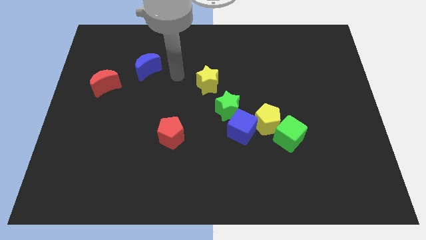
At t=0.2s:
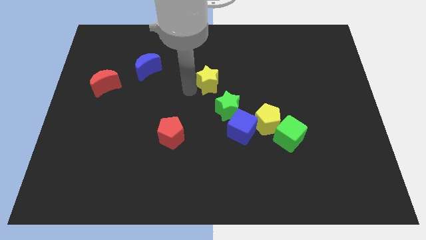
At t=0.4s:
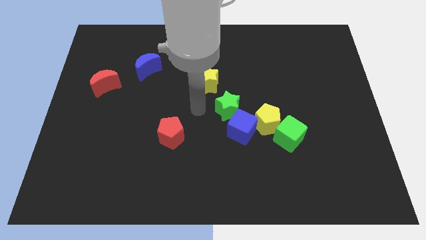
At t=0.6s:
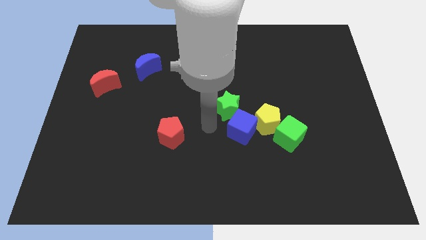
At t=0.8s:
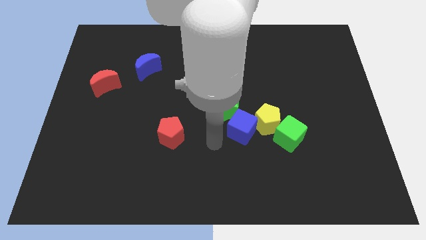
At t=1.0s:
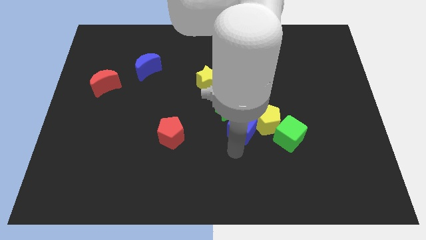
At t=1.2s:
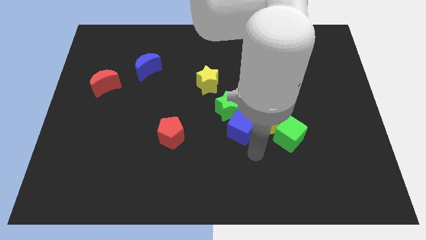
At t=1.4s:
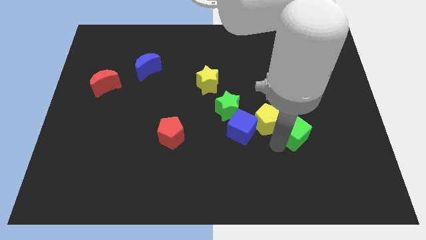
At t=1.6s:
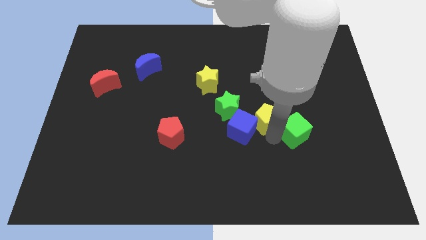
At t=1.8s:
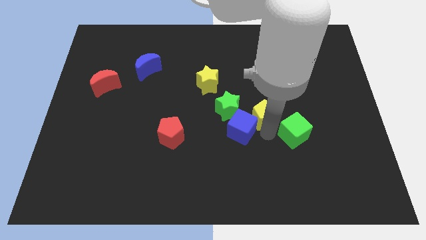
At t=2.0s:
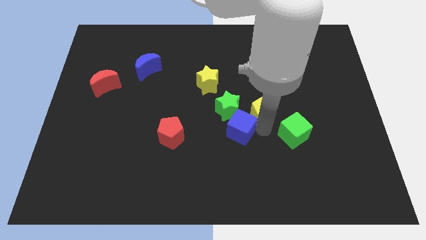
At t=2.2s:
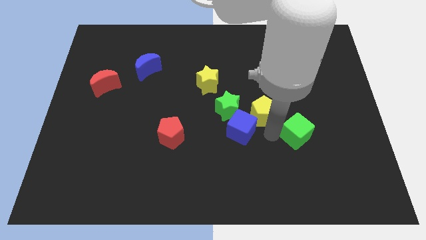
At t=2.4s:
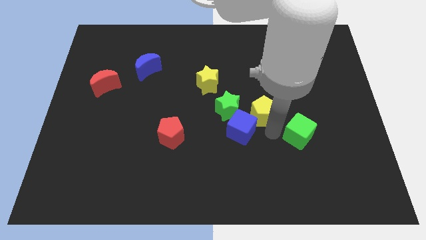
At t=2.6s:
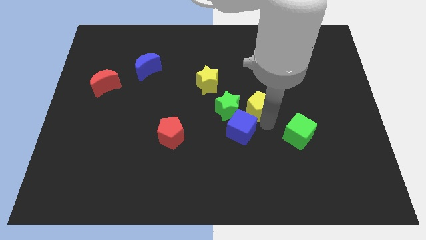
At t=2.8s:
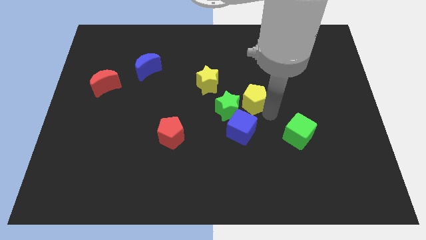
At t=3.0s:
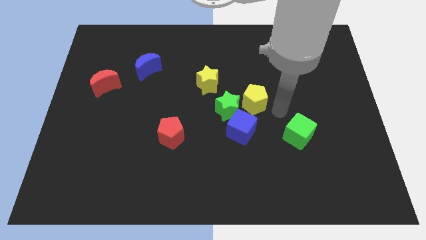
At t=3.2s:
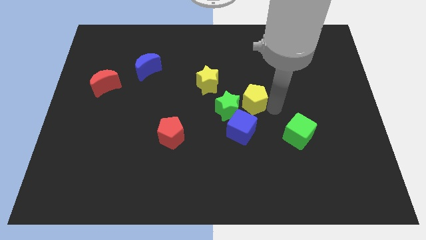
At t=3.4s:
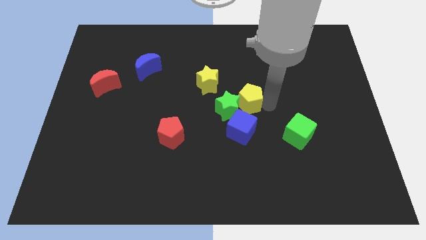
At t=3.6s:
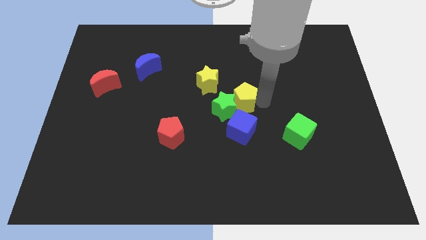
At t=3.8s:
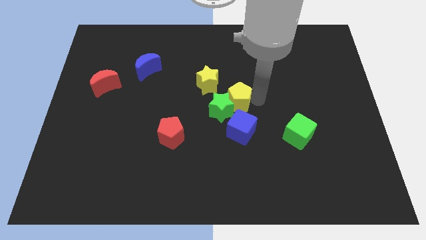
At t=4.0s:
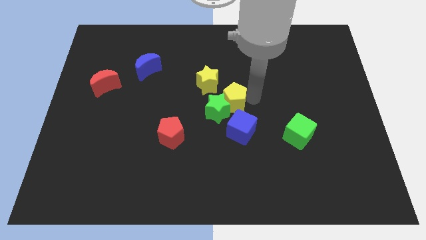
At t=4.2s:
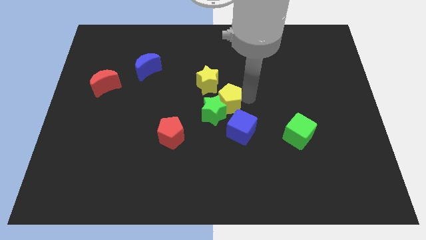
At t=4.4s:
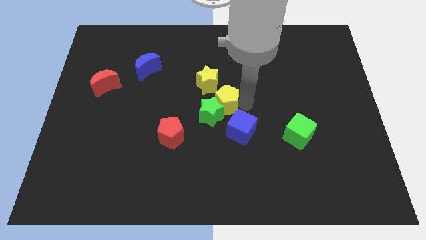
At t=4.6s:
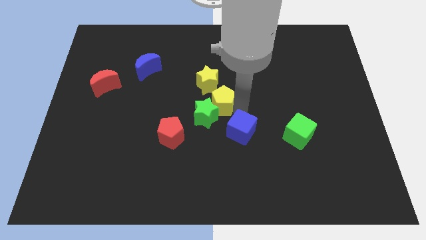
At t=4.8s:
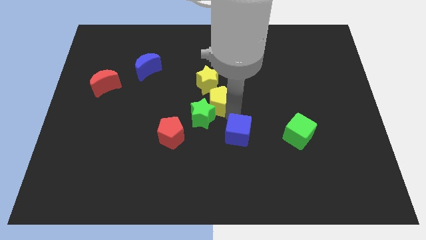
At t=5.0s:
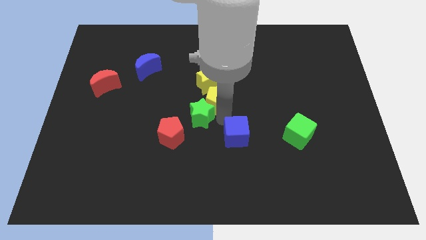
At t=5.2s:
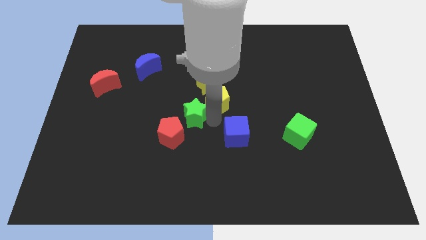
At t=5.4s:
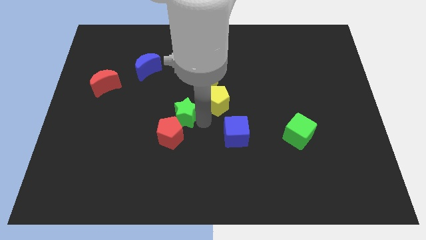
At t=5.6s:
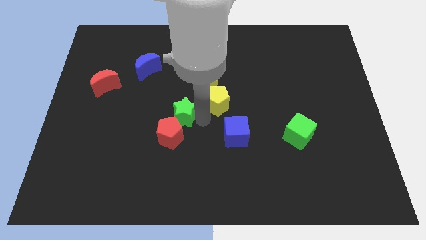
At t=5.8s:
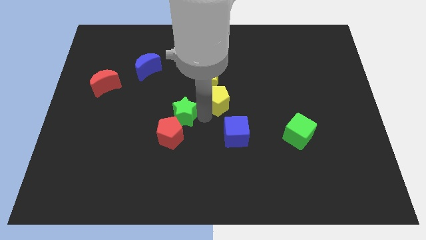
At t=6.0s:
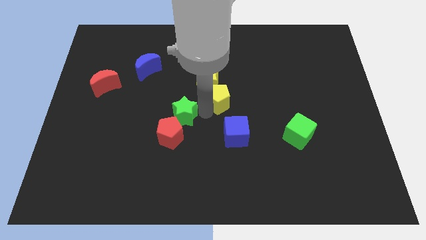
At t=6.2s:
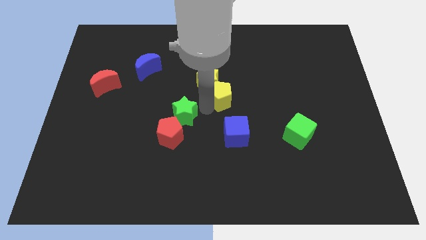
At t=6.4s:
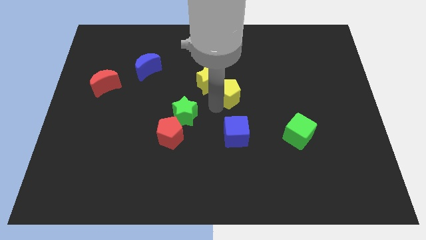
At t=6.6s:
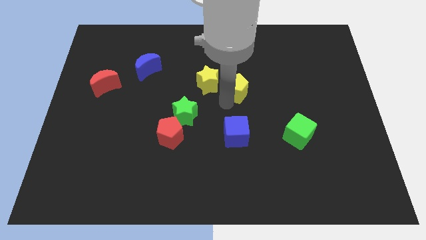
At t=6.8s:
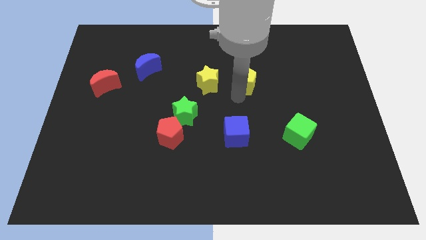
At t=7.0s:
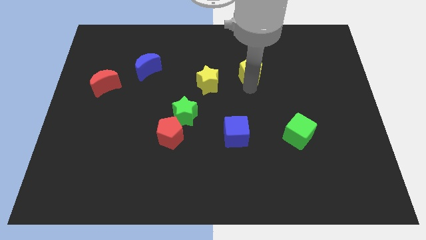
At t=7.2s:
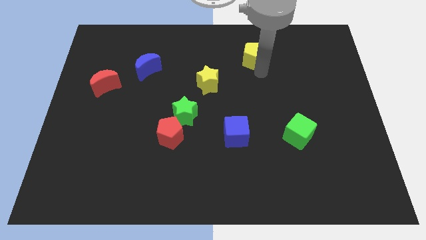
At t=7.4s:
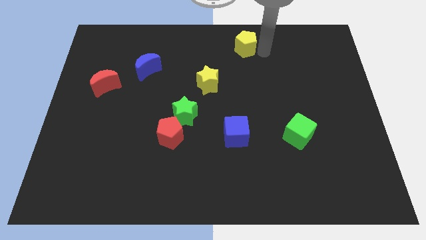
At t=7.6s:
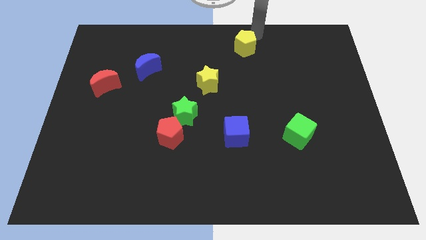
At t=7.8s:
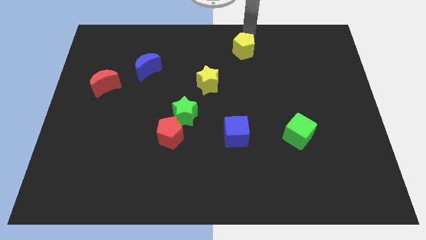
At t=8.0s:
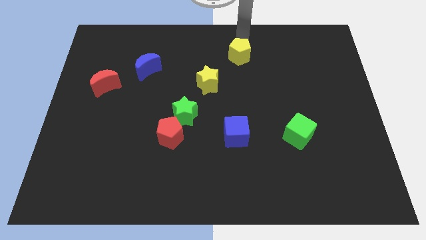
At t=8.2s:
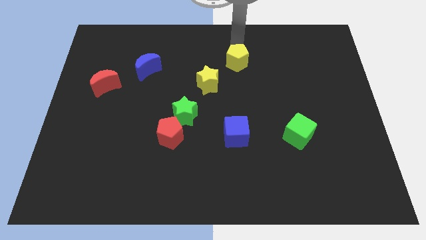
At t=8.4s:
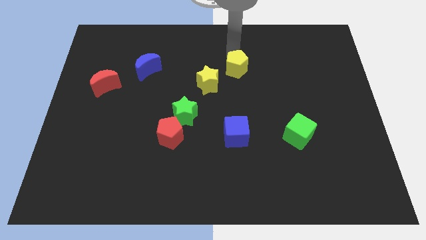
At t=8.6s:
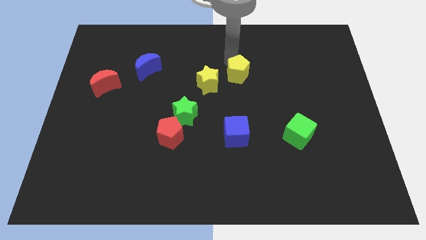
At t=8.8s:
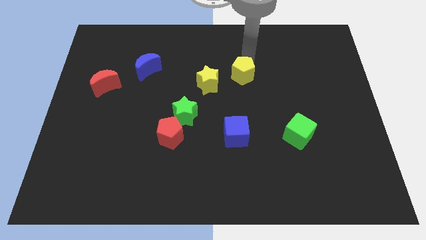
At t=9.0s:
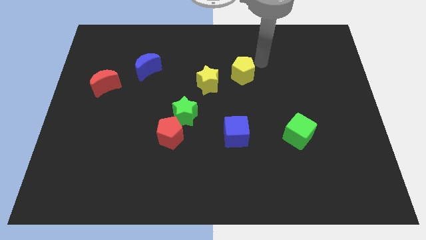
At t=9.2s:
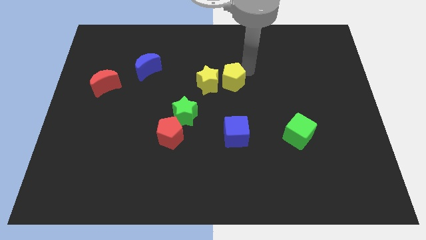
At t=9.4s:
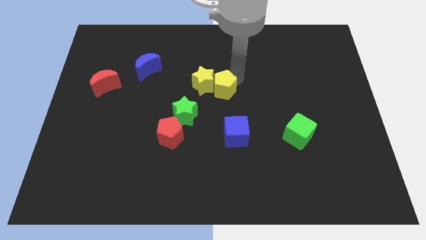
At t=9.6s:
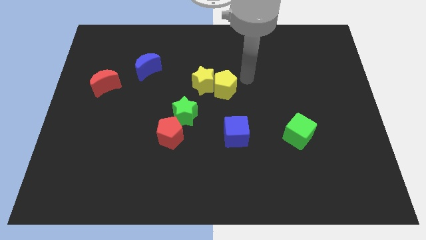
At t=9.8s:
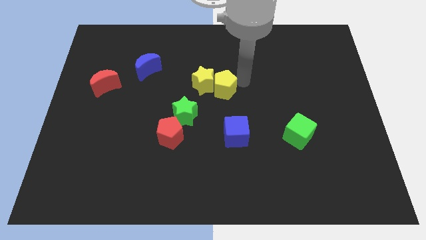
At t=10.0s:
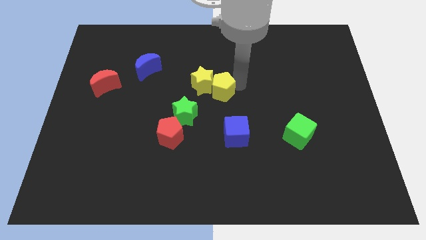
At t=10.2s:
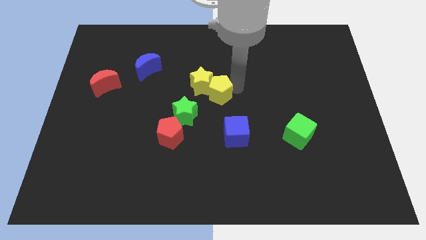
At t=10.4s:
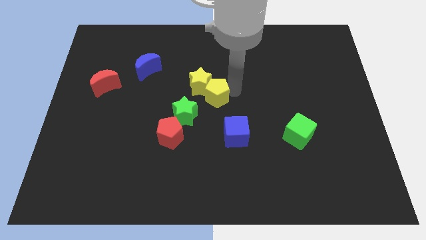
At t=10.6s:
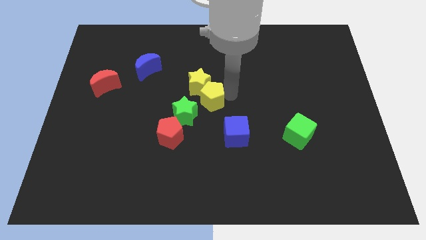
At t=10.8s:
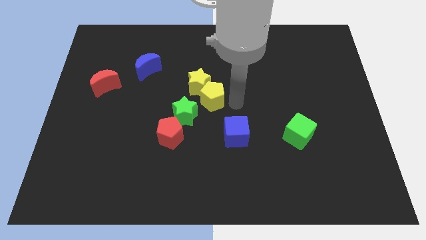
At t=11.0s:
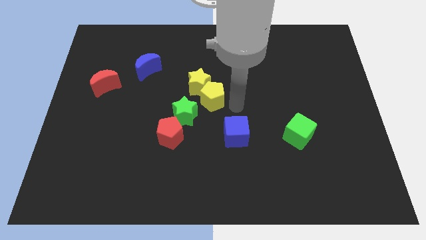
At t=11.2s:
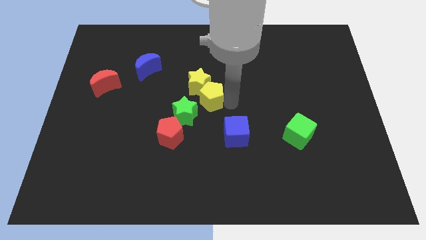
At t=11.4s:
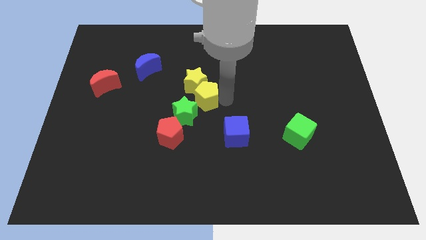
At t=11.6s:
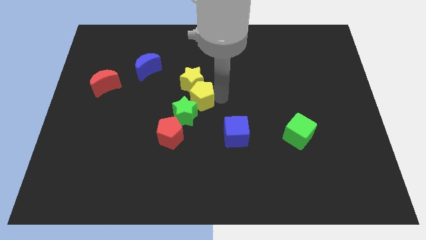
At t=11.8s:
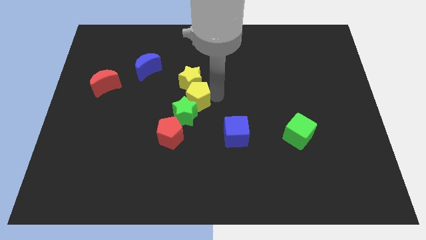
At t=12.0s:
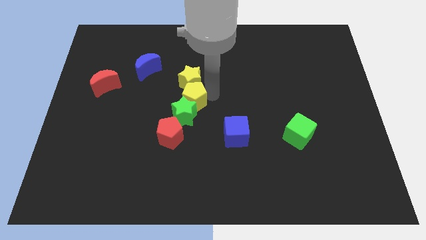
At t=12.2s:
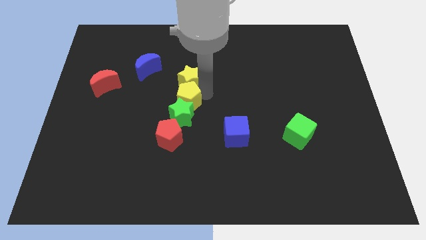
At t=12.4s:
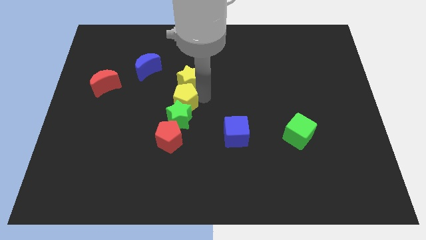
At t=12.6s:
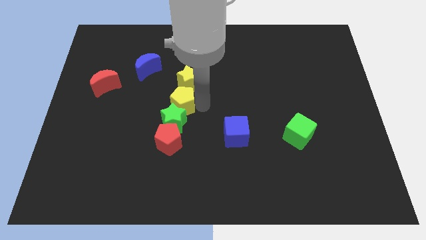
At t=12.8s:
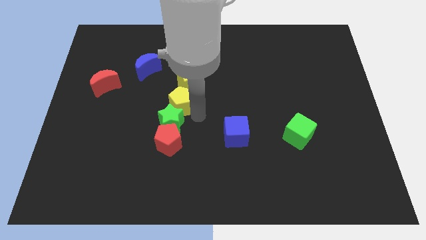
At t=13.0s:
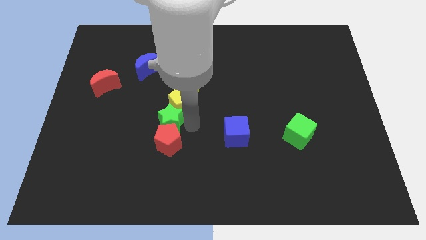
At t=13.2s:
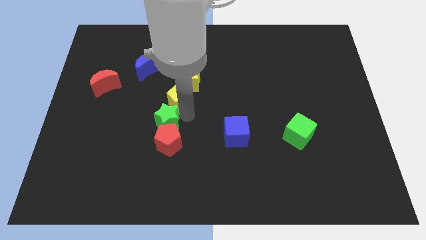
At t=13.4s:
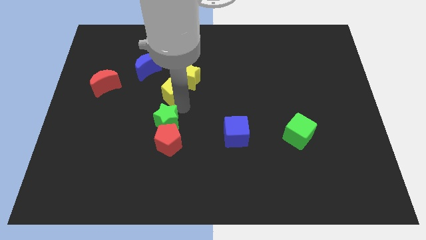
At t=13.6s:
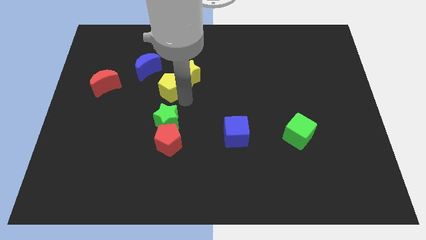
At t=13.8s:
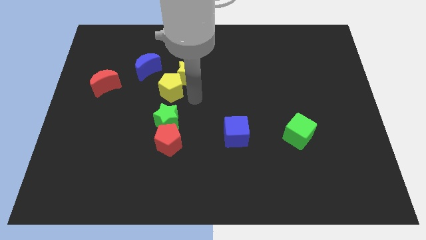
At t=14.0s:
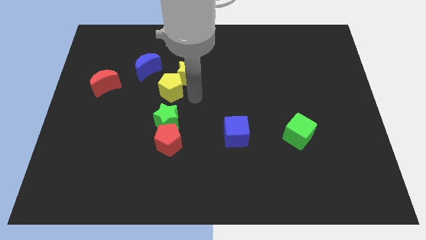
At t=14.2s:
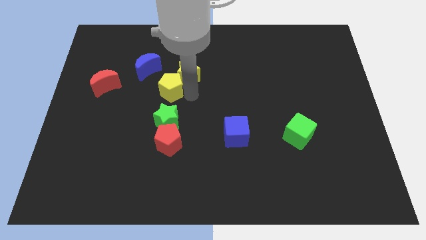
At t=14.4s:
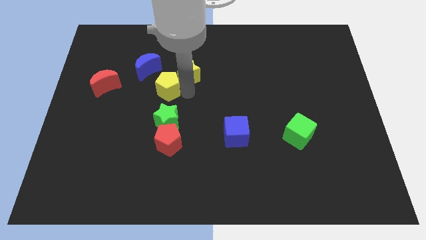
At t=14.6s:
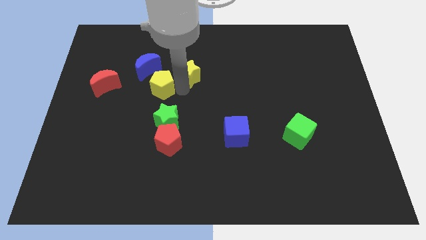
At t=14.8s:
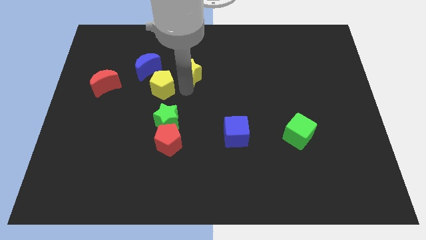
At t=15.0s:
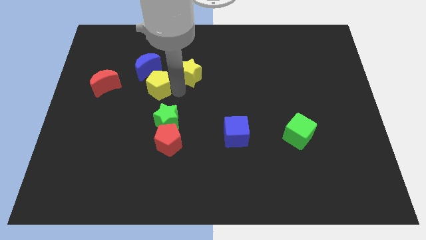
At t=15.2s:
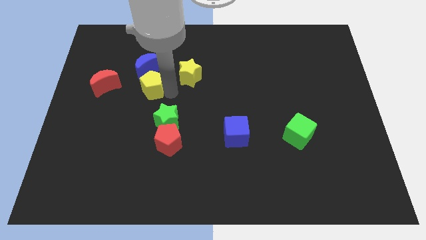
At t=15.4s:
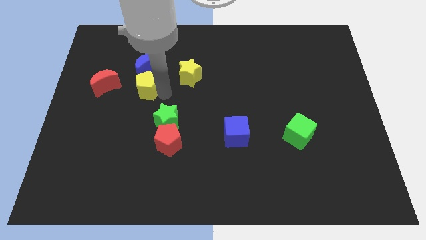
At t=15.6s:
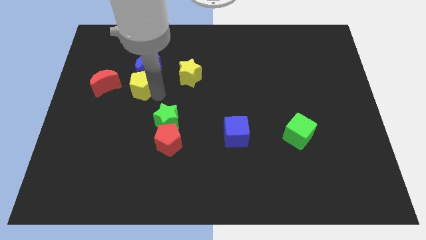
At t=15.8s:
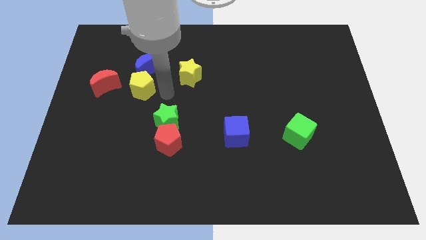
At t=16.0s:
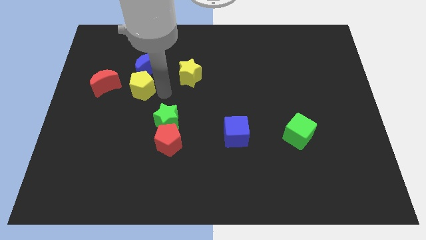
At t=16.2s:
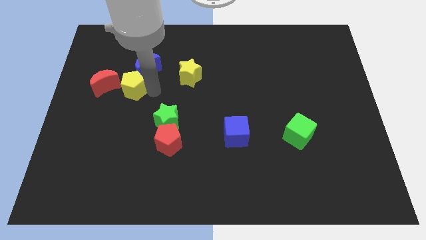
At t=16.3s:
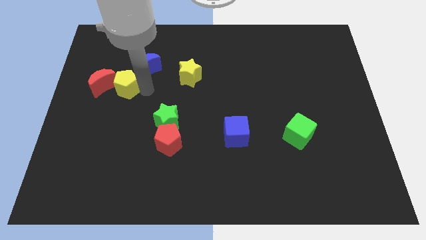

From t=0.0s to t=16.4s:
move the yellow pentagon to the red moon
